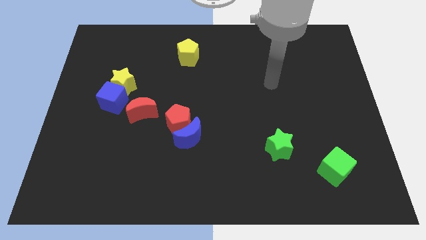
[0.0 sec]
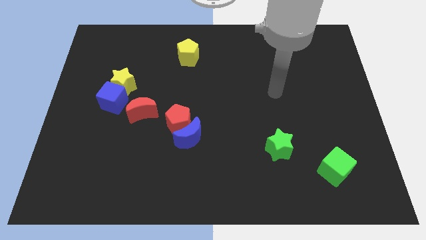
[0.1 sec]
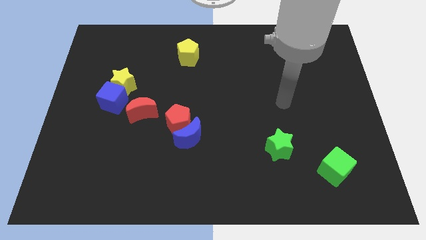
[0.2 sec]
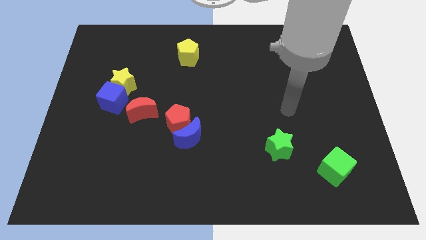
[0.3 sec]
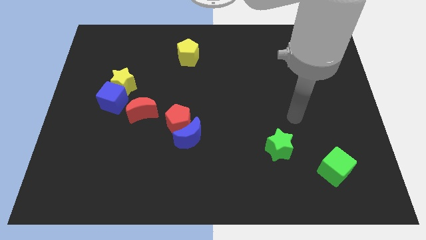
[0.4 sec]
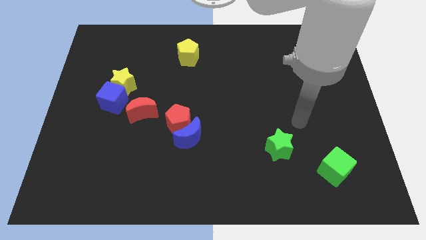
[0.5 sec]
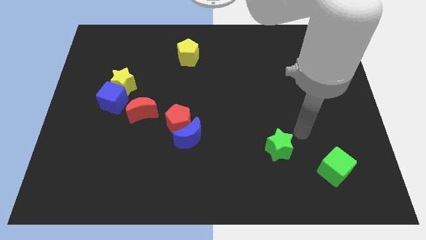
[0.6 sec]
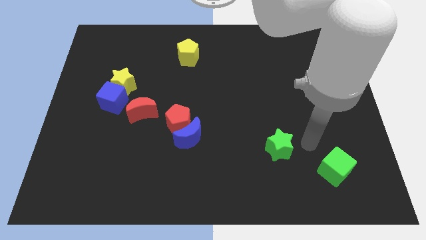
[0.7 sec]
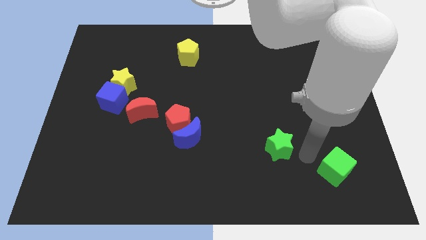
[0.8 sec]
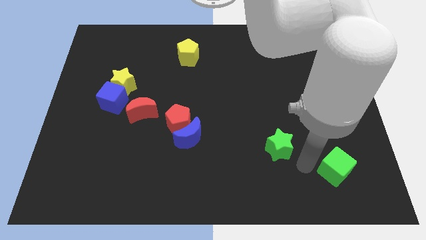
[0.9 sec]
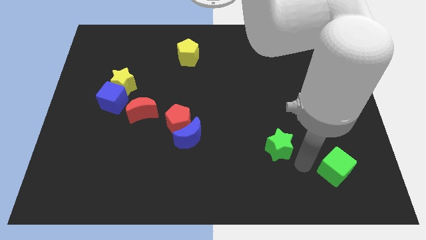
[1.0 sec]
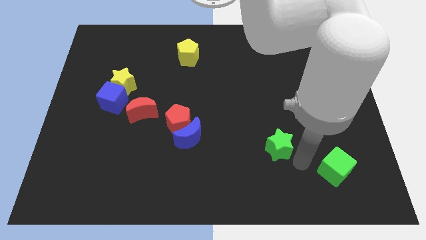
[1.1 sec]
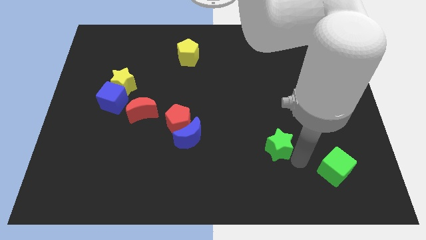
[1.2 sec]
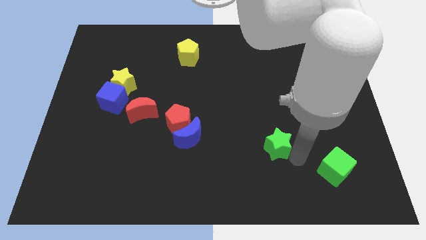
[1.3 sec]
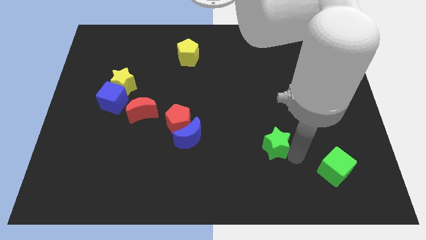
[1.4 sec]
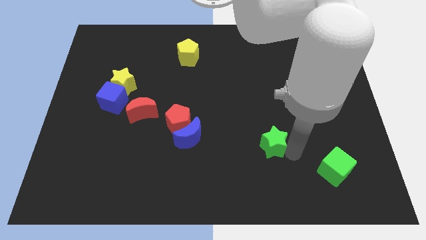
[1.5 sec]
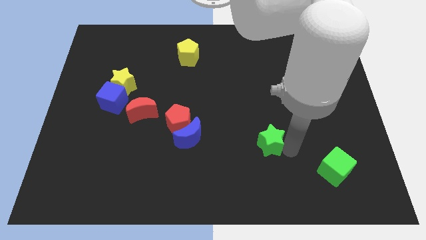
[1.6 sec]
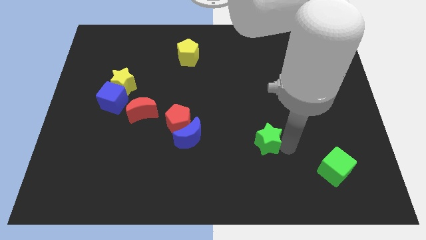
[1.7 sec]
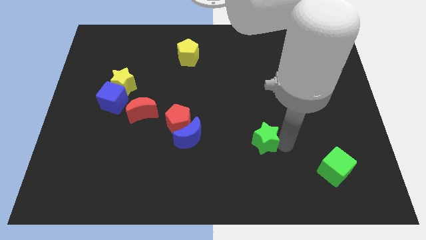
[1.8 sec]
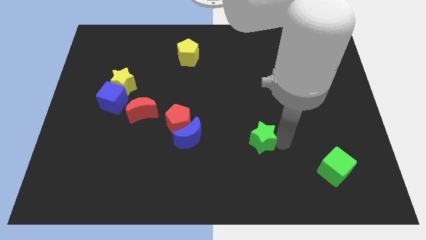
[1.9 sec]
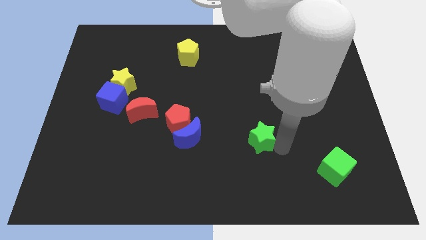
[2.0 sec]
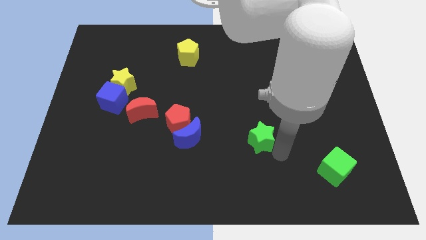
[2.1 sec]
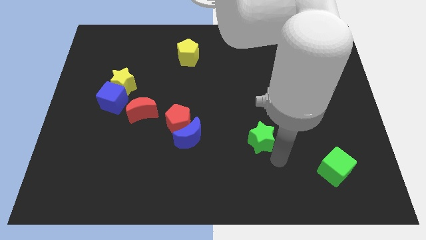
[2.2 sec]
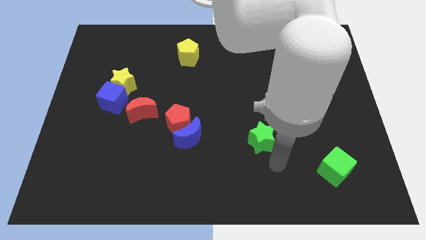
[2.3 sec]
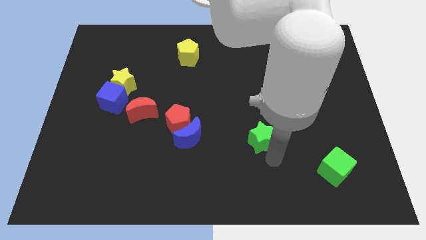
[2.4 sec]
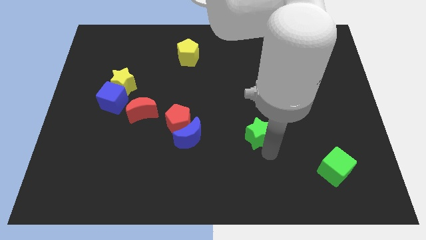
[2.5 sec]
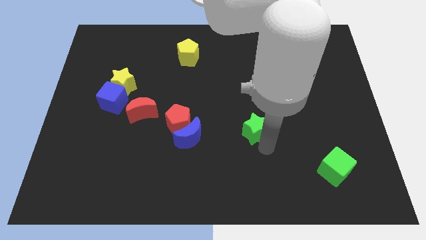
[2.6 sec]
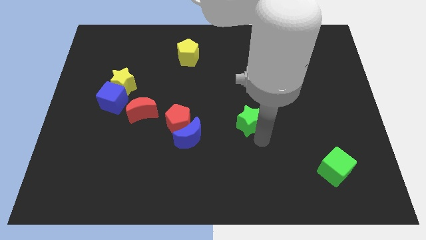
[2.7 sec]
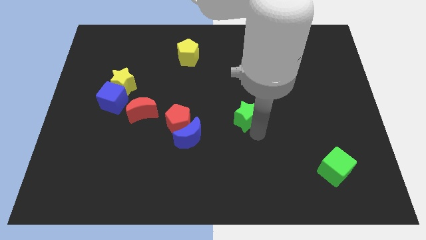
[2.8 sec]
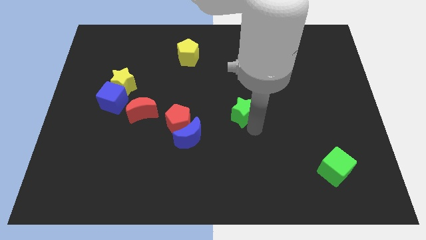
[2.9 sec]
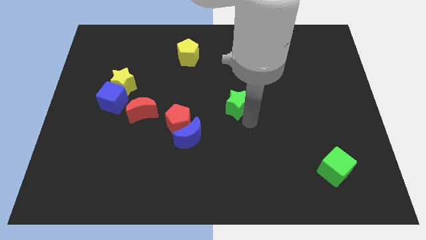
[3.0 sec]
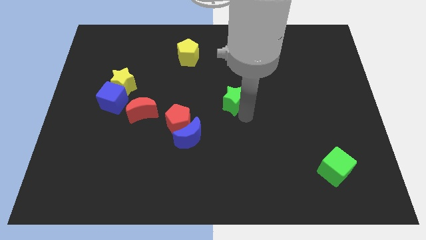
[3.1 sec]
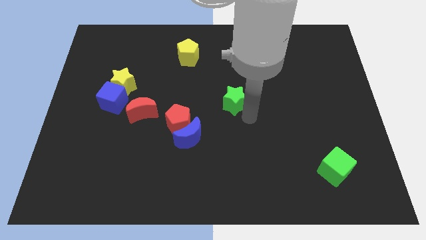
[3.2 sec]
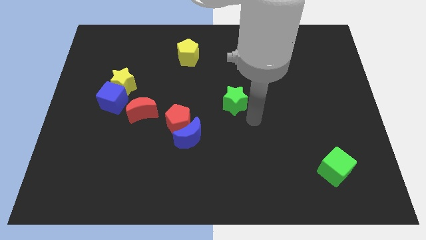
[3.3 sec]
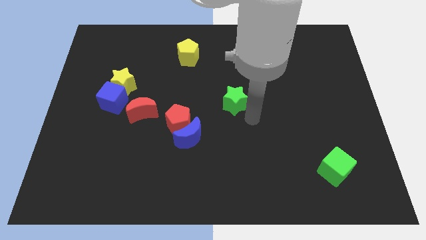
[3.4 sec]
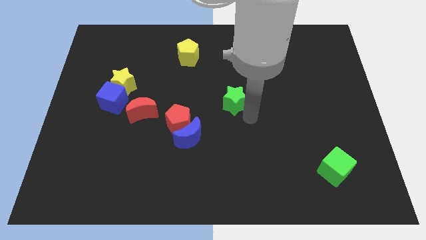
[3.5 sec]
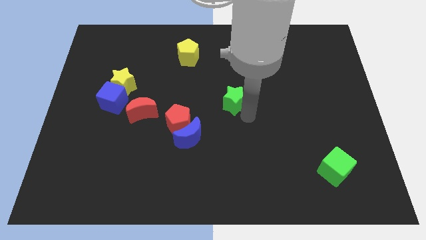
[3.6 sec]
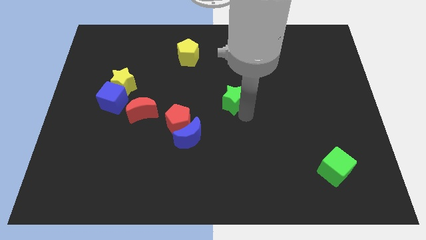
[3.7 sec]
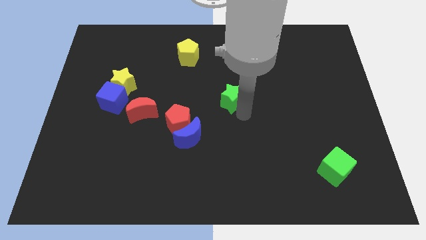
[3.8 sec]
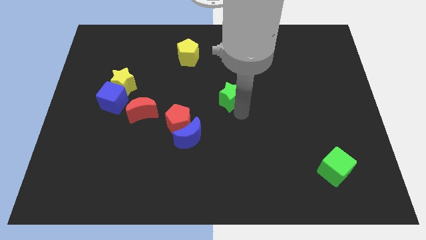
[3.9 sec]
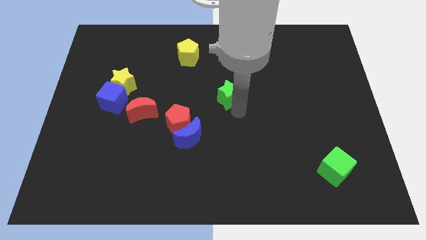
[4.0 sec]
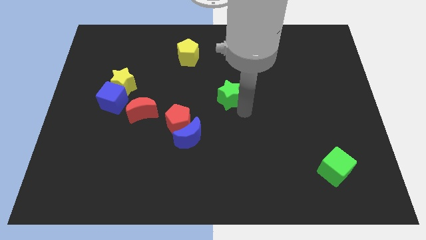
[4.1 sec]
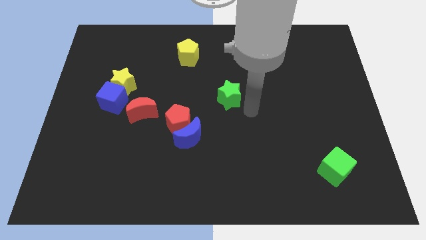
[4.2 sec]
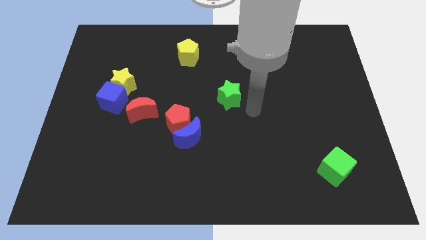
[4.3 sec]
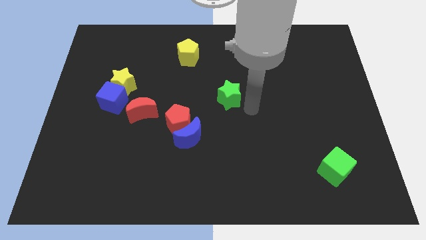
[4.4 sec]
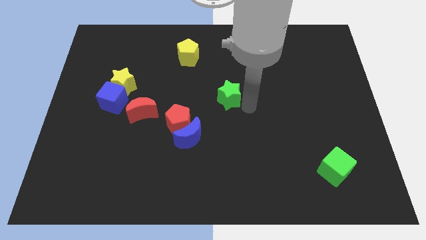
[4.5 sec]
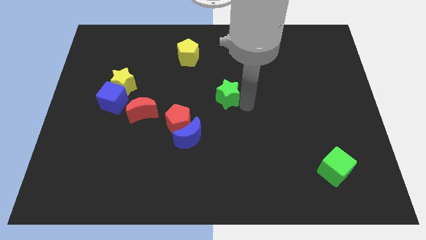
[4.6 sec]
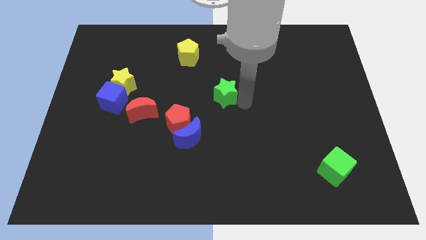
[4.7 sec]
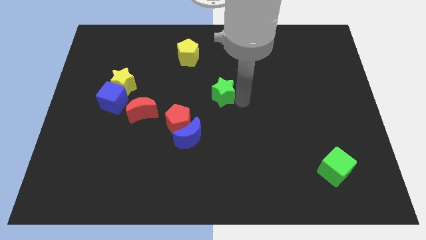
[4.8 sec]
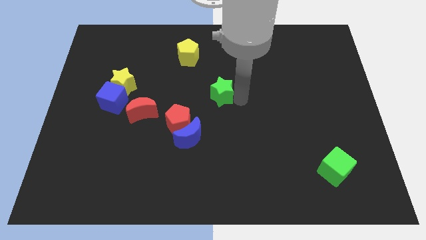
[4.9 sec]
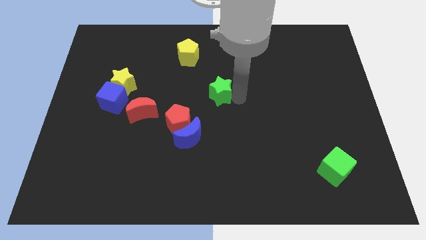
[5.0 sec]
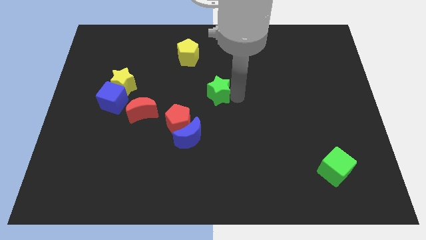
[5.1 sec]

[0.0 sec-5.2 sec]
slide the green star diagonally up and to the left

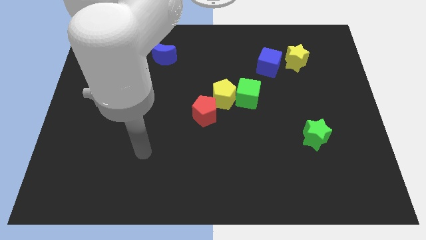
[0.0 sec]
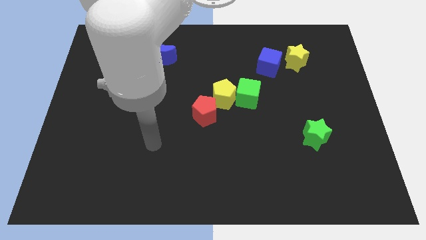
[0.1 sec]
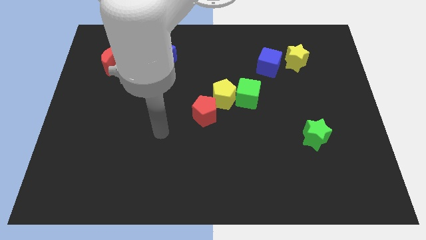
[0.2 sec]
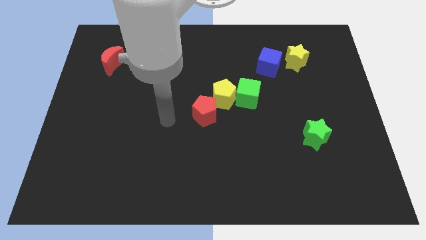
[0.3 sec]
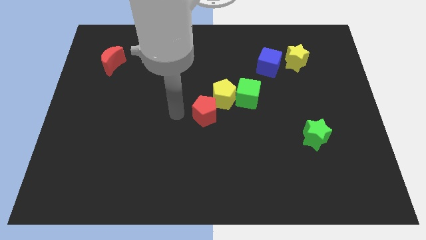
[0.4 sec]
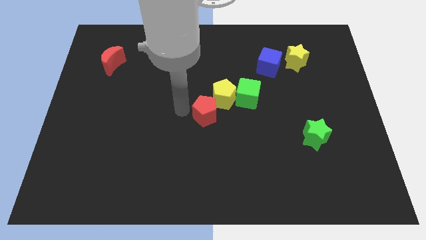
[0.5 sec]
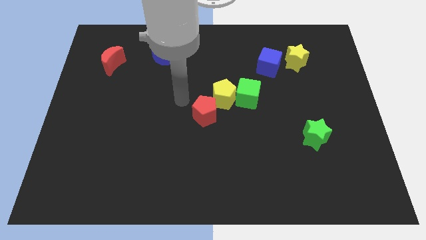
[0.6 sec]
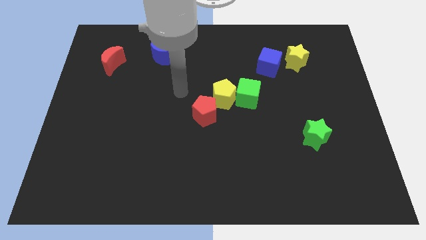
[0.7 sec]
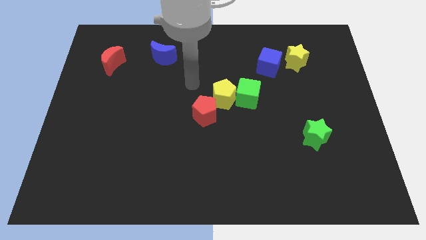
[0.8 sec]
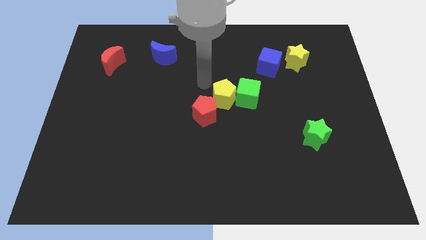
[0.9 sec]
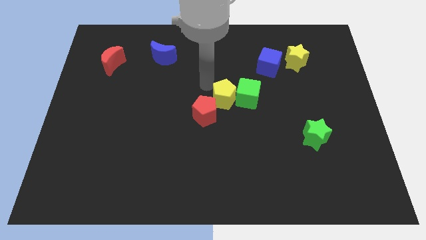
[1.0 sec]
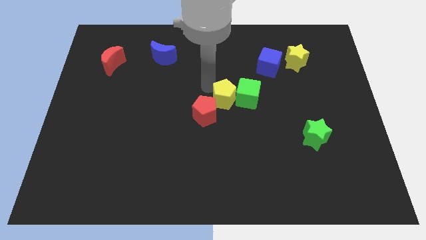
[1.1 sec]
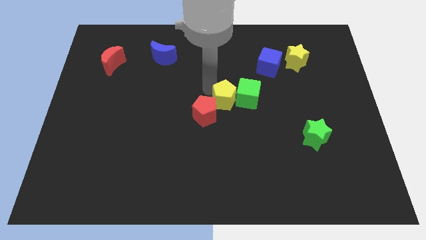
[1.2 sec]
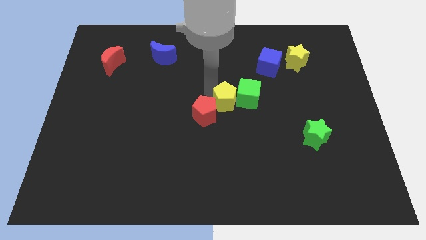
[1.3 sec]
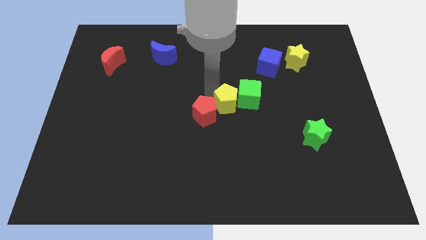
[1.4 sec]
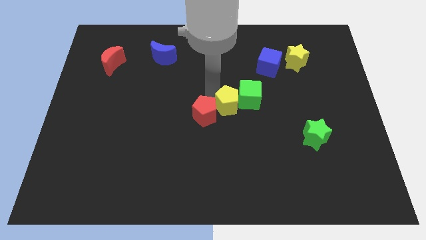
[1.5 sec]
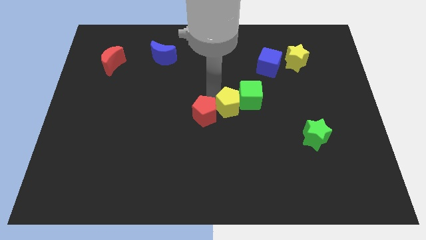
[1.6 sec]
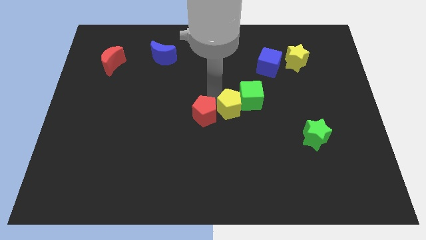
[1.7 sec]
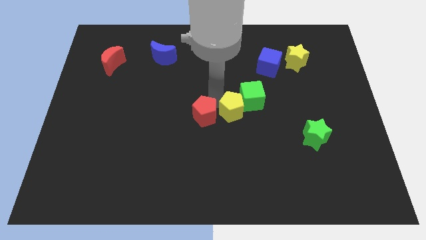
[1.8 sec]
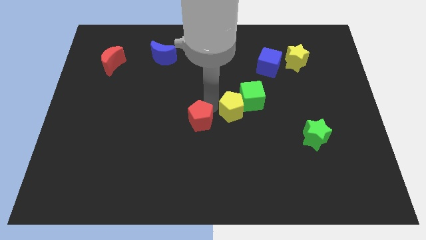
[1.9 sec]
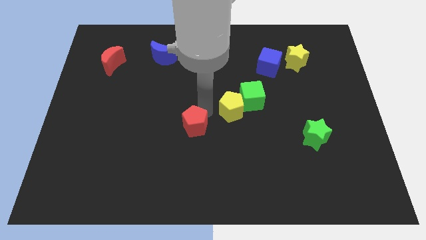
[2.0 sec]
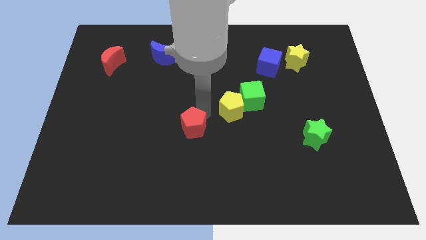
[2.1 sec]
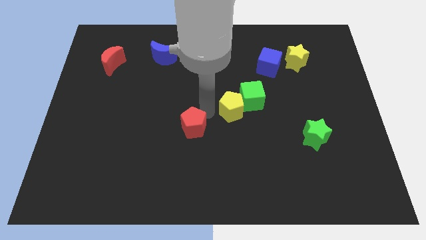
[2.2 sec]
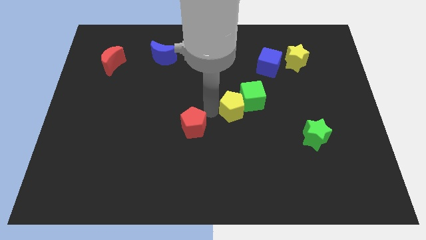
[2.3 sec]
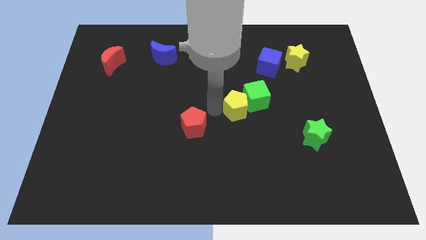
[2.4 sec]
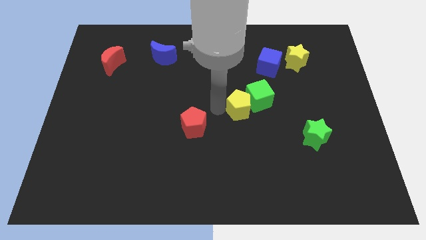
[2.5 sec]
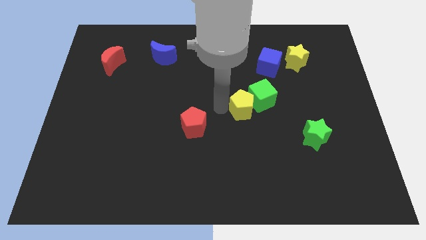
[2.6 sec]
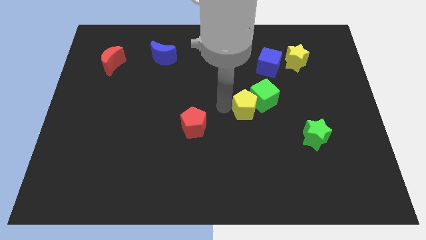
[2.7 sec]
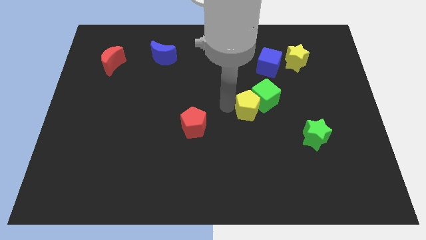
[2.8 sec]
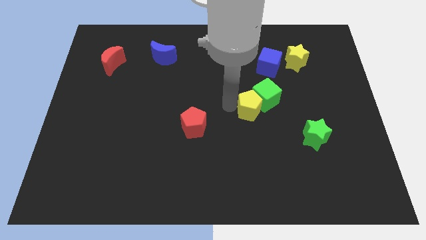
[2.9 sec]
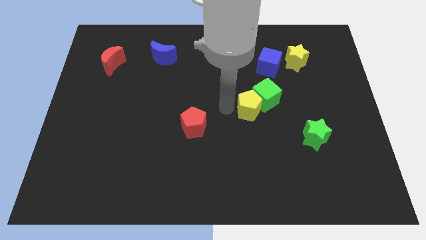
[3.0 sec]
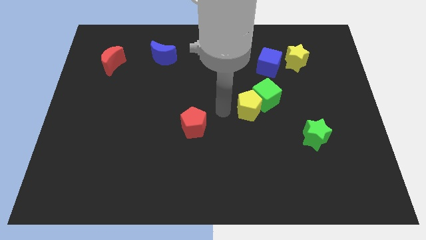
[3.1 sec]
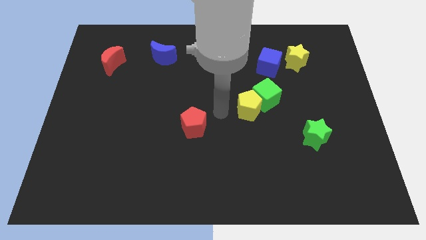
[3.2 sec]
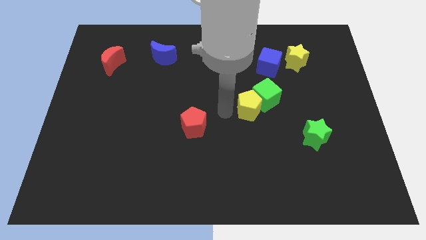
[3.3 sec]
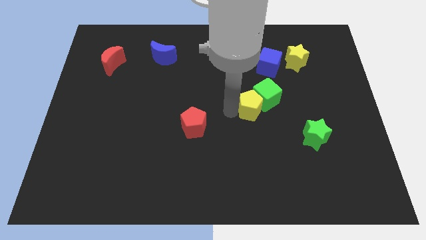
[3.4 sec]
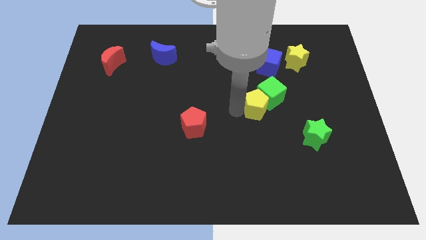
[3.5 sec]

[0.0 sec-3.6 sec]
slide the yellow pentagon to the right a little
